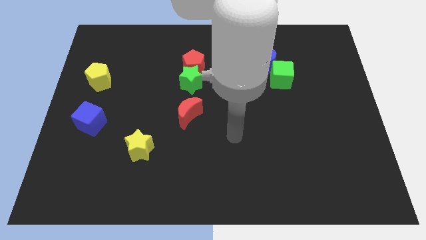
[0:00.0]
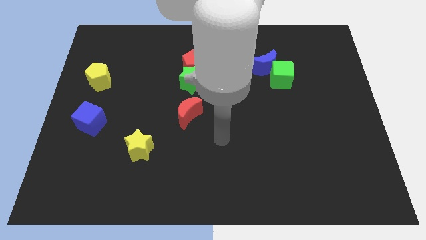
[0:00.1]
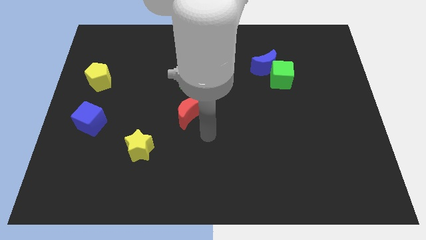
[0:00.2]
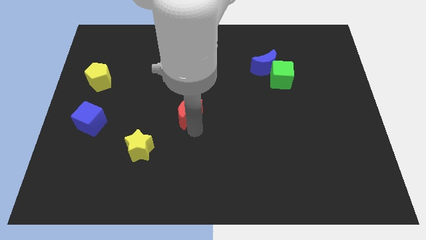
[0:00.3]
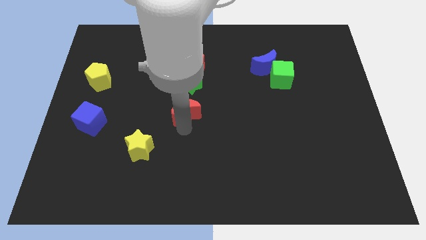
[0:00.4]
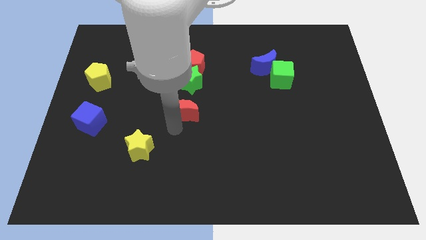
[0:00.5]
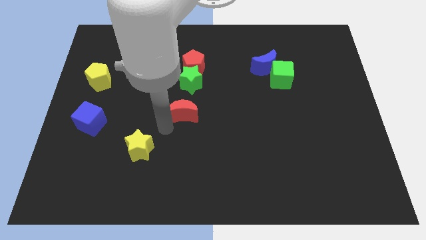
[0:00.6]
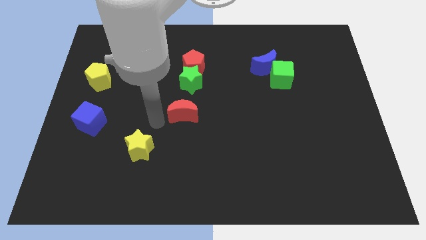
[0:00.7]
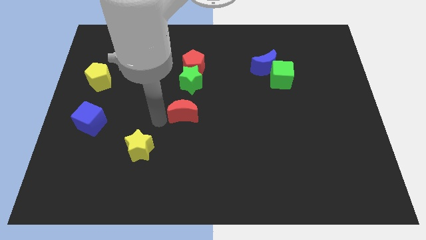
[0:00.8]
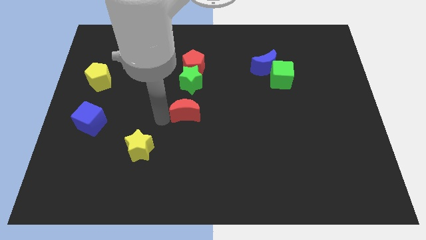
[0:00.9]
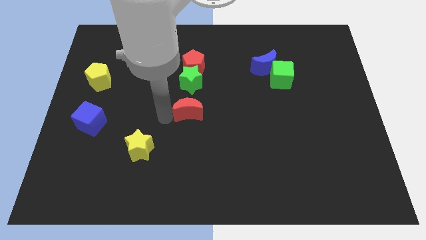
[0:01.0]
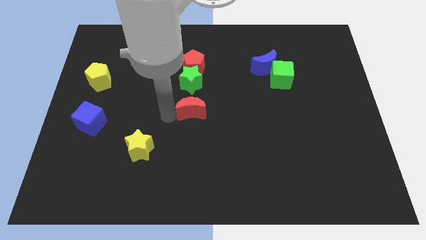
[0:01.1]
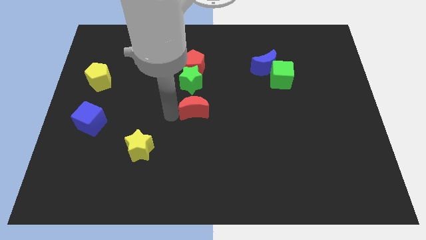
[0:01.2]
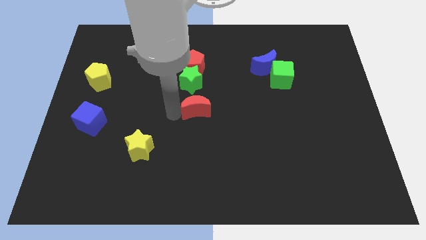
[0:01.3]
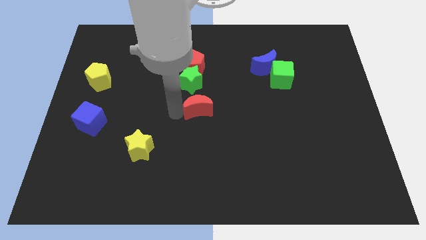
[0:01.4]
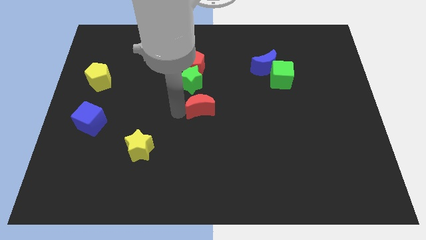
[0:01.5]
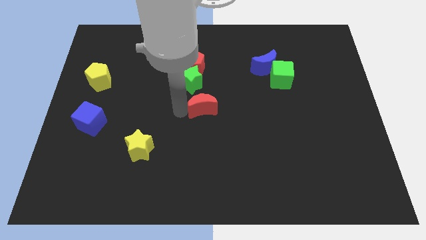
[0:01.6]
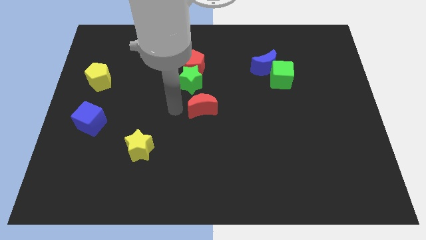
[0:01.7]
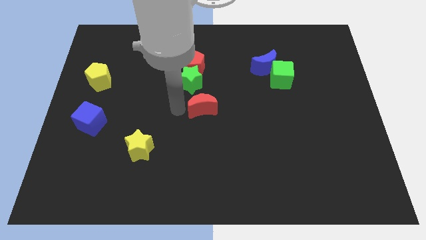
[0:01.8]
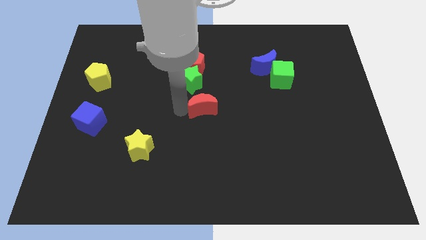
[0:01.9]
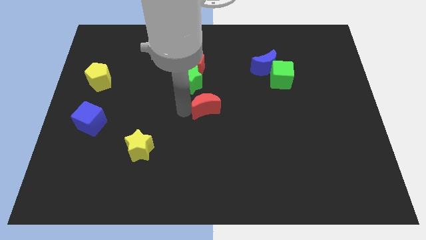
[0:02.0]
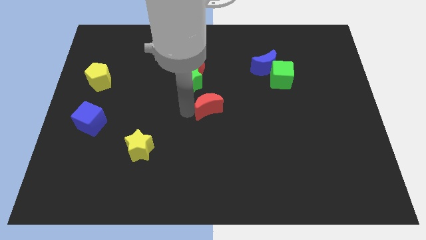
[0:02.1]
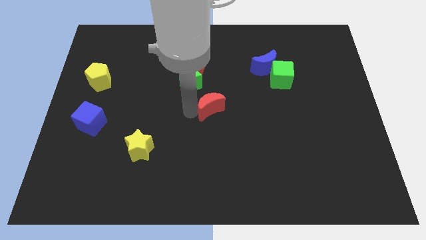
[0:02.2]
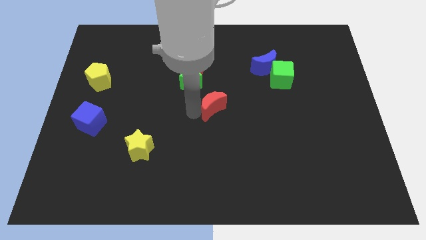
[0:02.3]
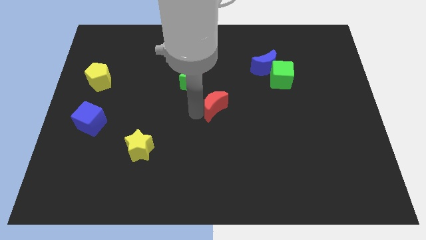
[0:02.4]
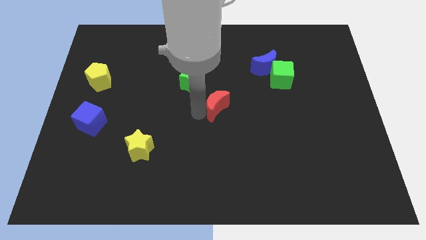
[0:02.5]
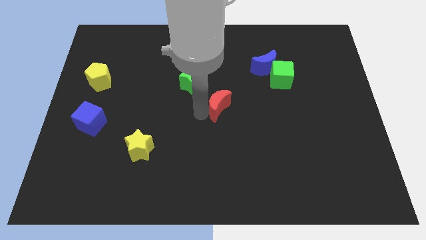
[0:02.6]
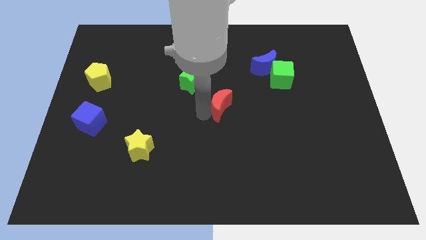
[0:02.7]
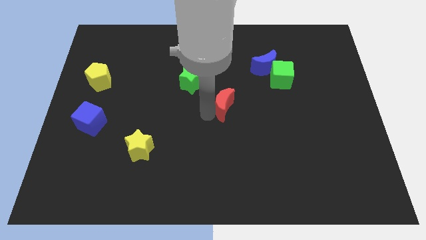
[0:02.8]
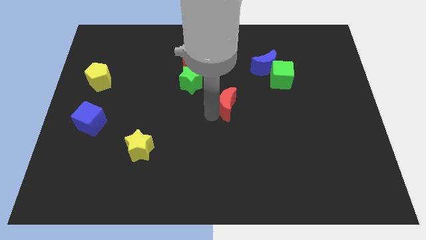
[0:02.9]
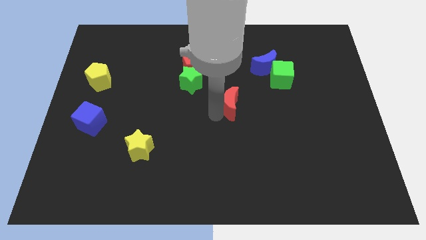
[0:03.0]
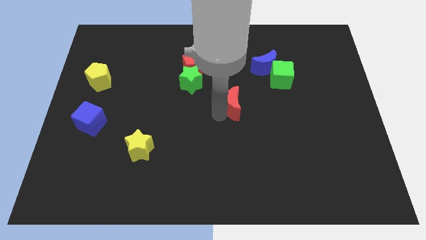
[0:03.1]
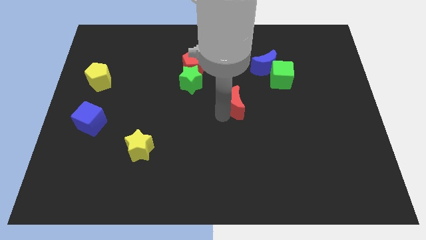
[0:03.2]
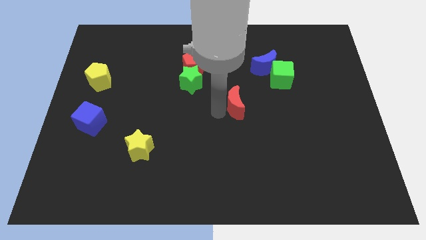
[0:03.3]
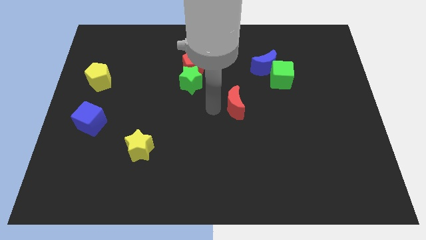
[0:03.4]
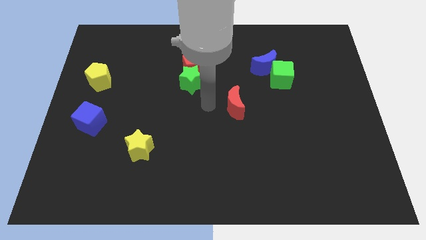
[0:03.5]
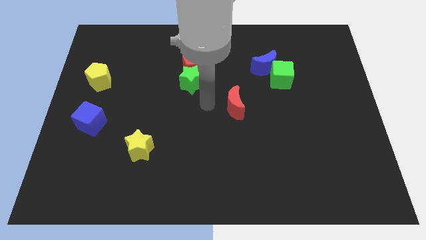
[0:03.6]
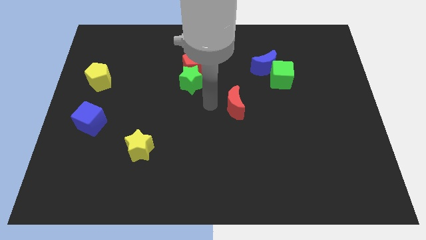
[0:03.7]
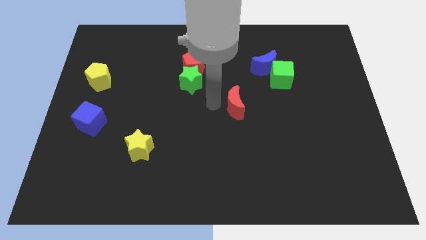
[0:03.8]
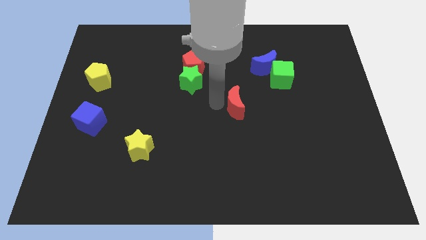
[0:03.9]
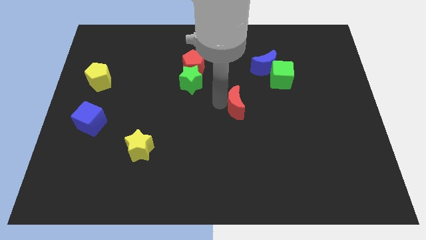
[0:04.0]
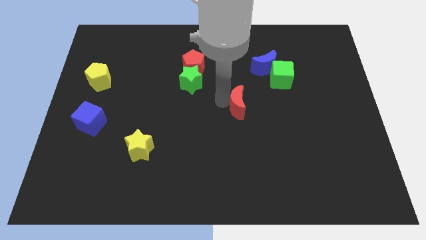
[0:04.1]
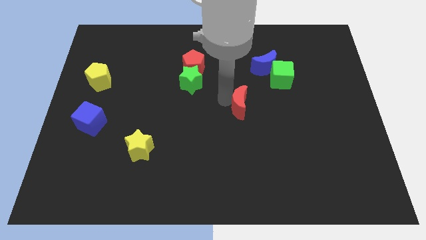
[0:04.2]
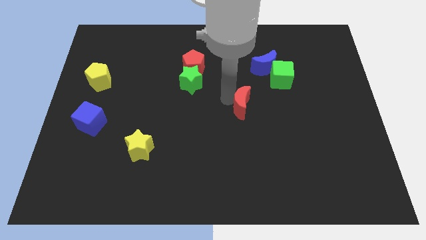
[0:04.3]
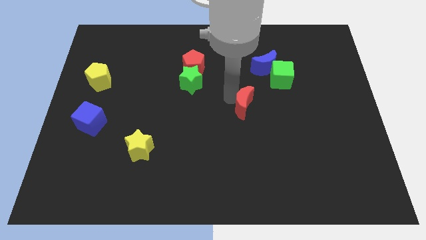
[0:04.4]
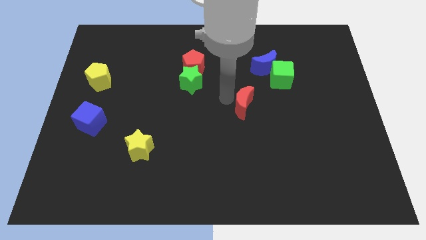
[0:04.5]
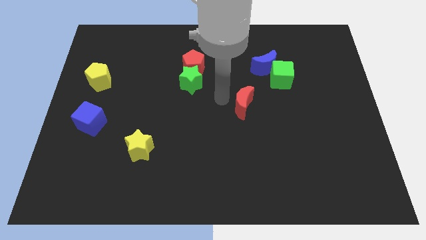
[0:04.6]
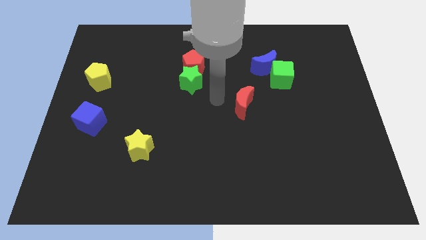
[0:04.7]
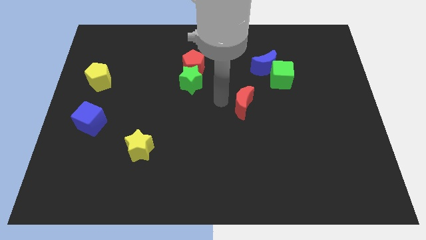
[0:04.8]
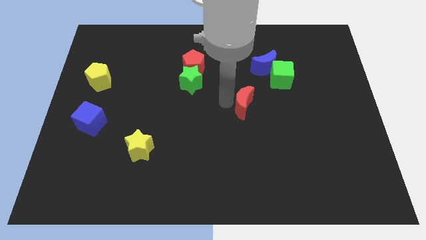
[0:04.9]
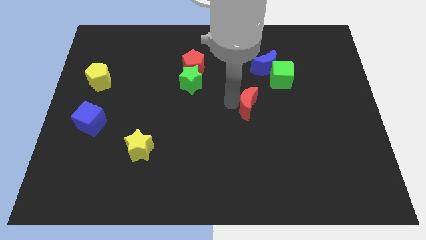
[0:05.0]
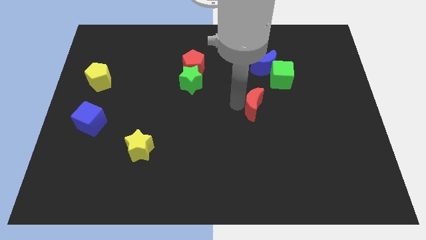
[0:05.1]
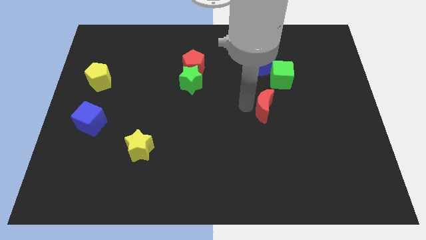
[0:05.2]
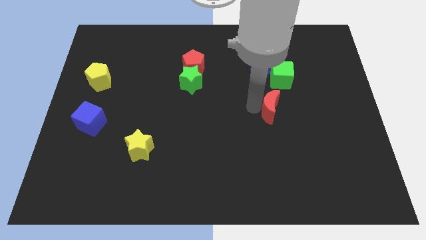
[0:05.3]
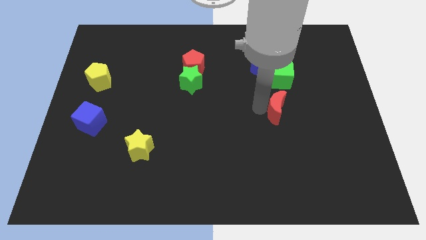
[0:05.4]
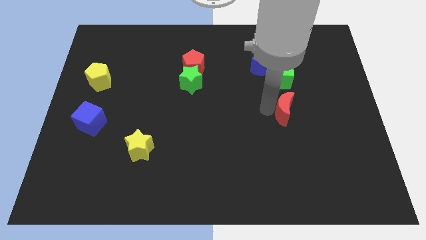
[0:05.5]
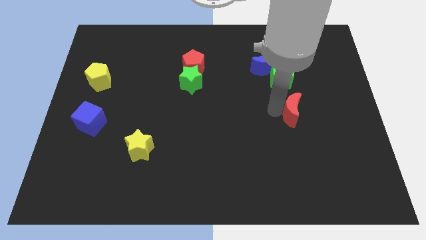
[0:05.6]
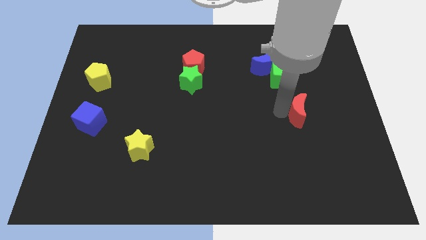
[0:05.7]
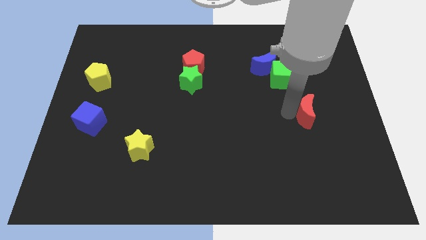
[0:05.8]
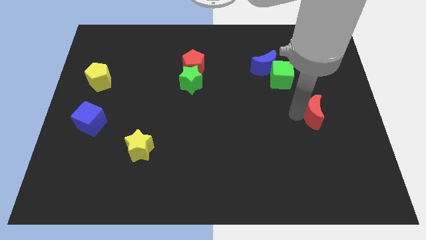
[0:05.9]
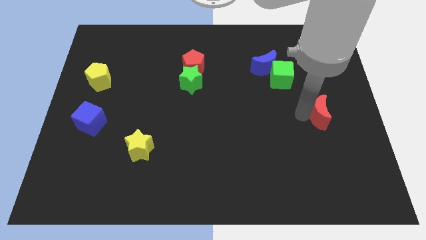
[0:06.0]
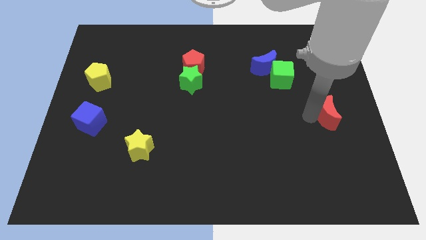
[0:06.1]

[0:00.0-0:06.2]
put the red moon to the right side of the board
